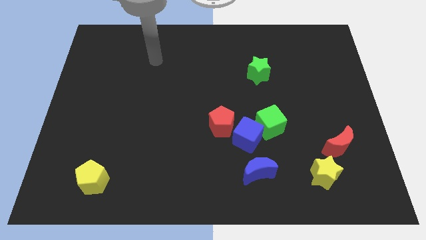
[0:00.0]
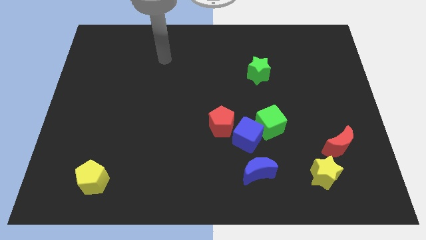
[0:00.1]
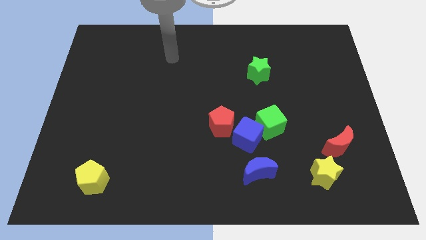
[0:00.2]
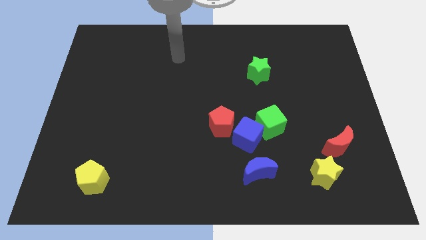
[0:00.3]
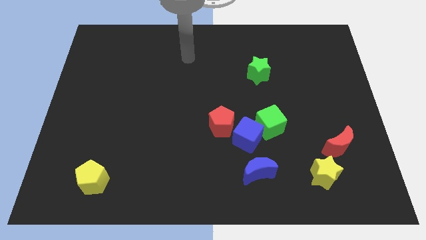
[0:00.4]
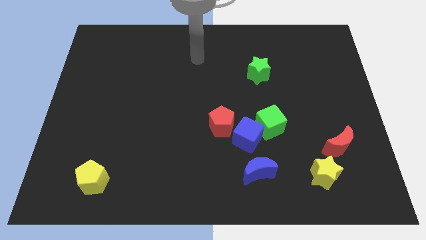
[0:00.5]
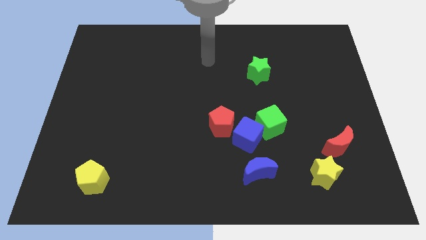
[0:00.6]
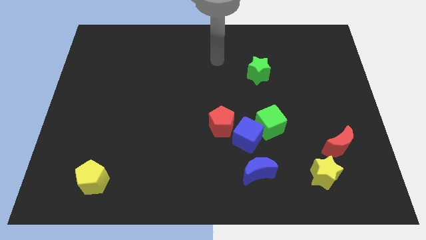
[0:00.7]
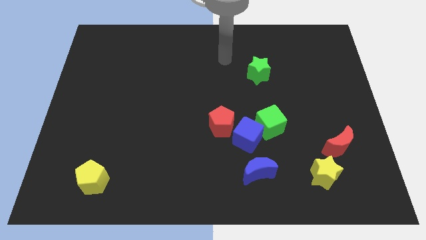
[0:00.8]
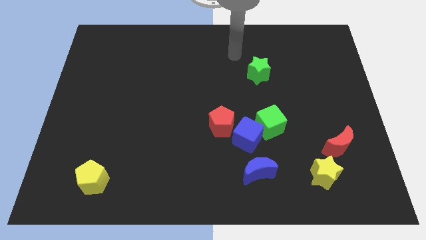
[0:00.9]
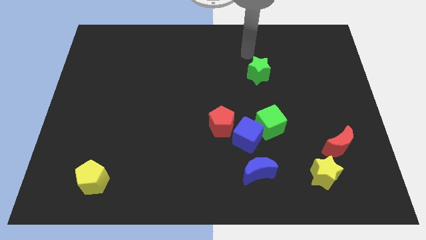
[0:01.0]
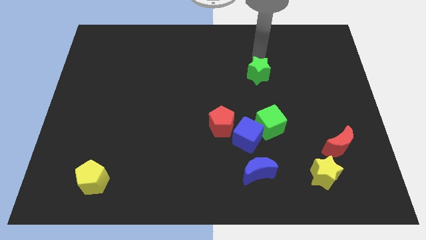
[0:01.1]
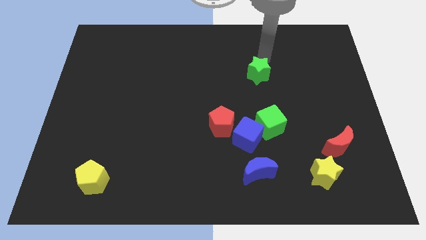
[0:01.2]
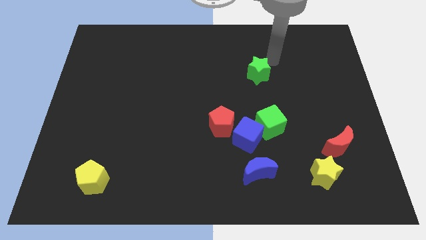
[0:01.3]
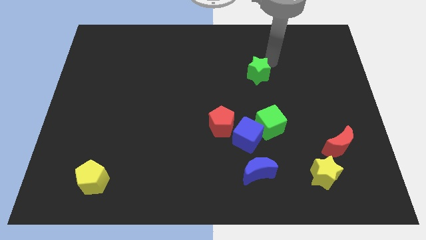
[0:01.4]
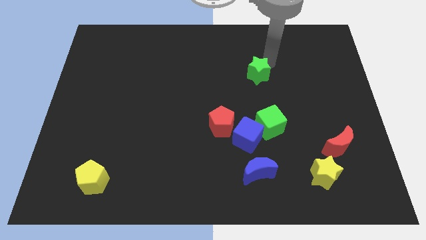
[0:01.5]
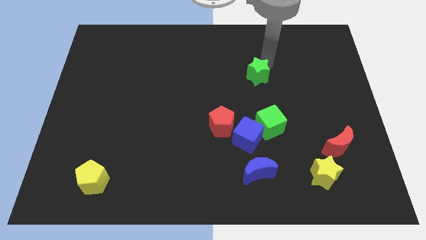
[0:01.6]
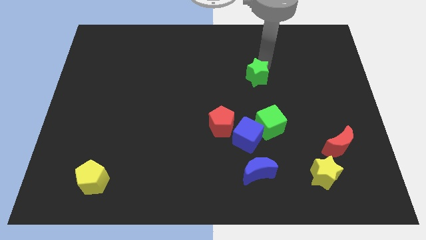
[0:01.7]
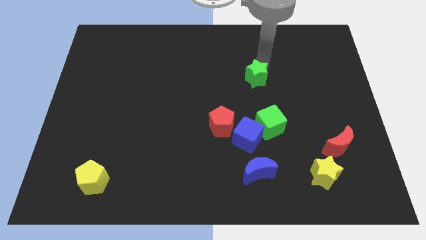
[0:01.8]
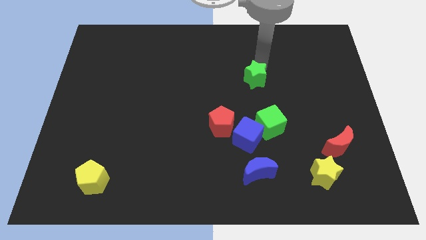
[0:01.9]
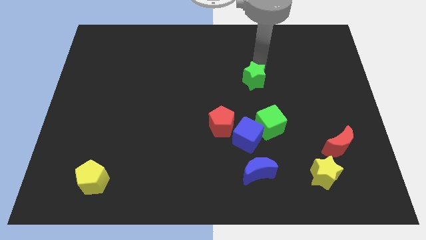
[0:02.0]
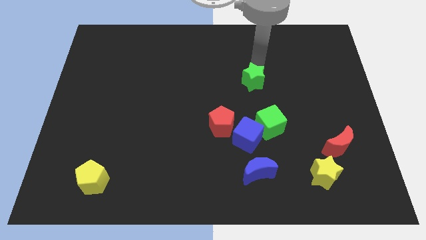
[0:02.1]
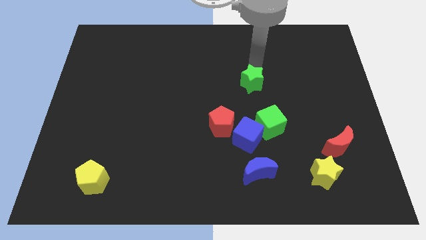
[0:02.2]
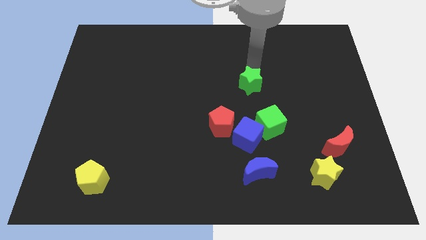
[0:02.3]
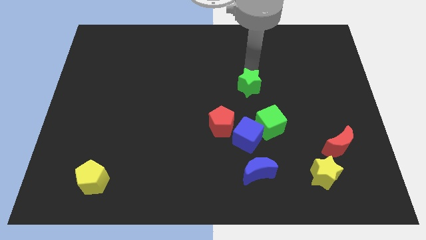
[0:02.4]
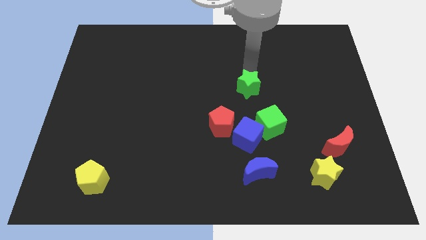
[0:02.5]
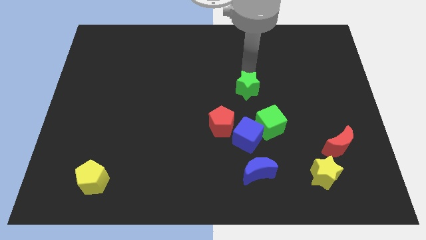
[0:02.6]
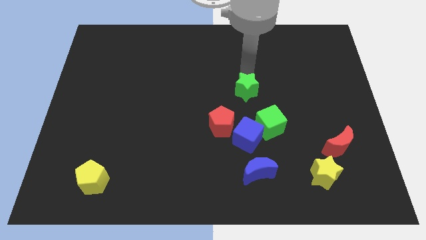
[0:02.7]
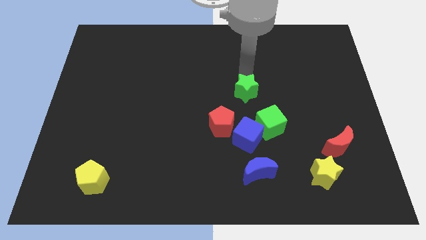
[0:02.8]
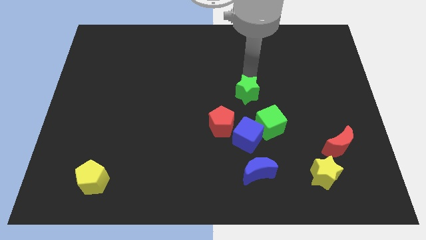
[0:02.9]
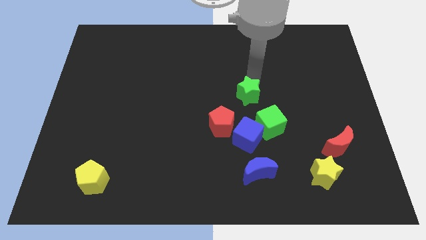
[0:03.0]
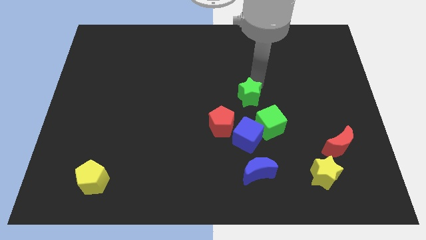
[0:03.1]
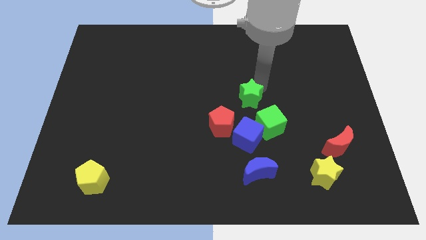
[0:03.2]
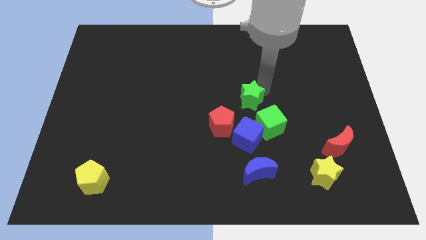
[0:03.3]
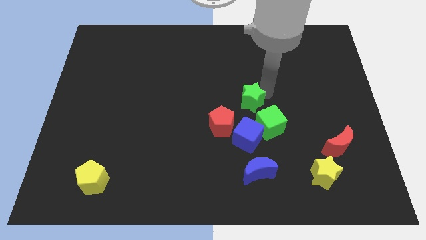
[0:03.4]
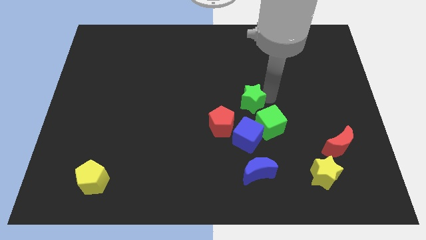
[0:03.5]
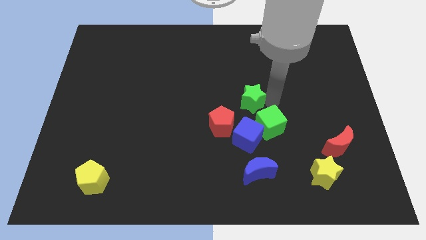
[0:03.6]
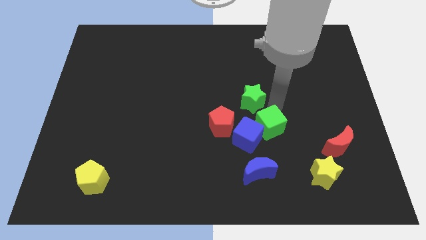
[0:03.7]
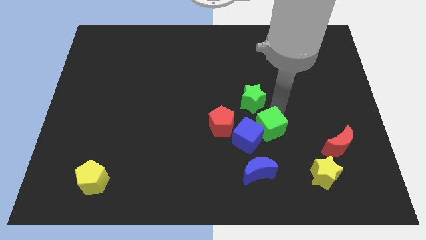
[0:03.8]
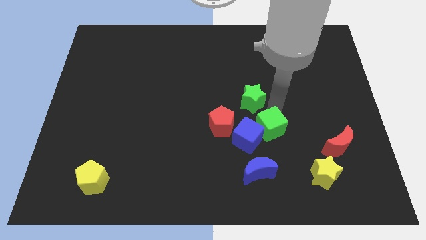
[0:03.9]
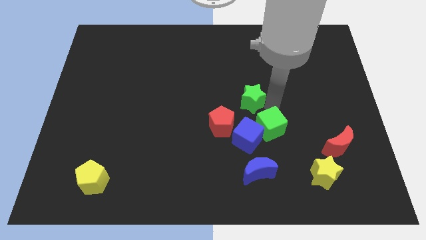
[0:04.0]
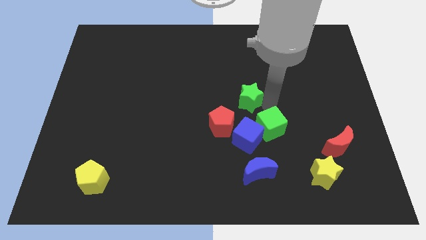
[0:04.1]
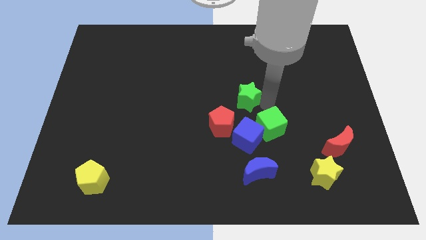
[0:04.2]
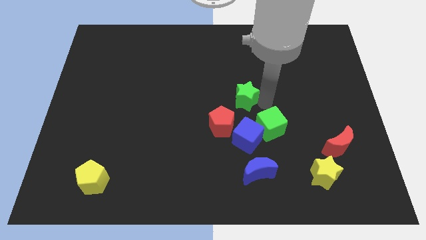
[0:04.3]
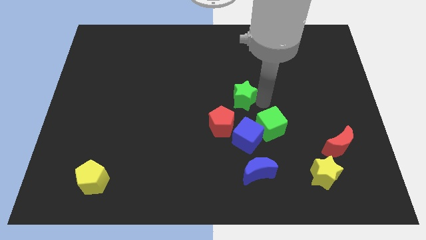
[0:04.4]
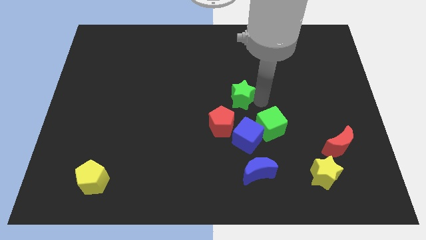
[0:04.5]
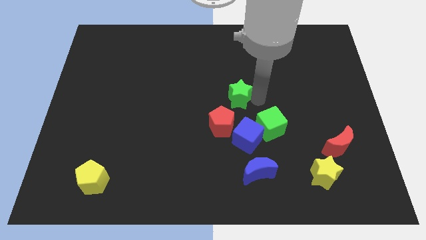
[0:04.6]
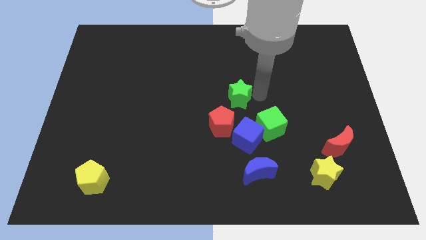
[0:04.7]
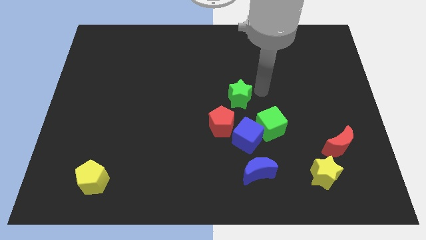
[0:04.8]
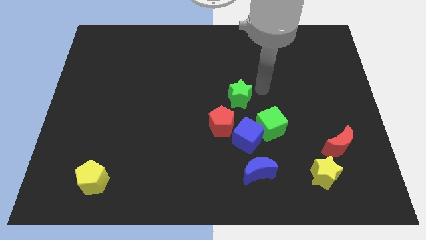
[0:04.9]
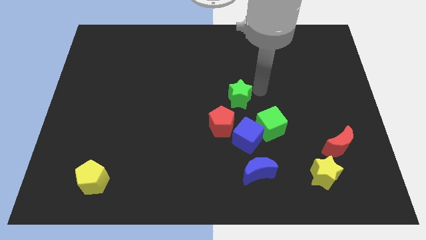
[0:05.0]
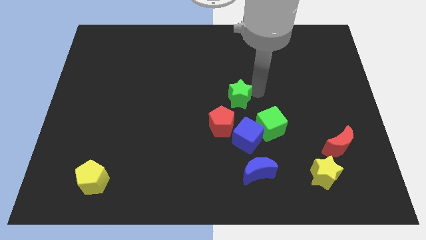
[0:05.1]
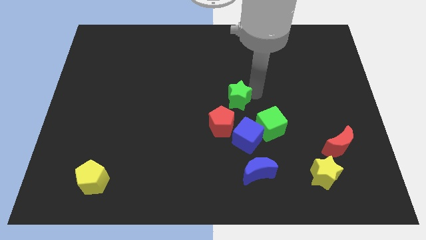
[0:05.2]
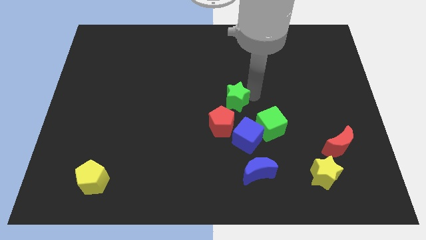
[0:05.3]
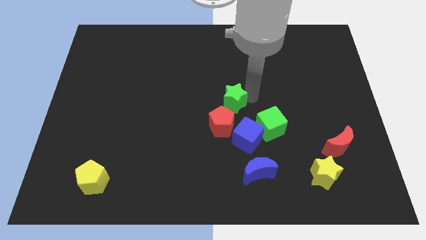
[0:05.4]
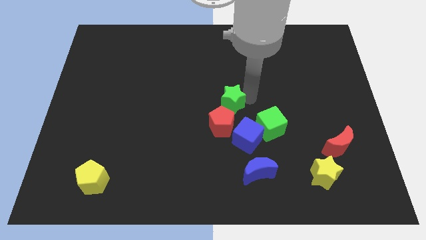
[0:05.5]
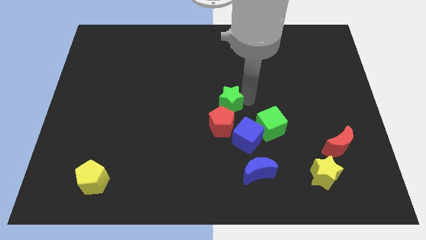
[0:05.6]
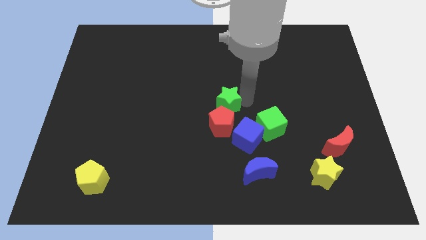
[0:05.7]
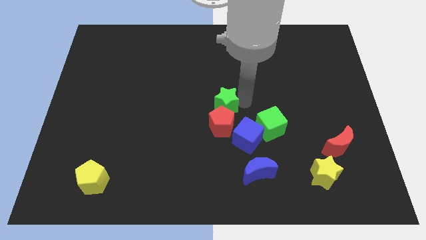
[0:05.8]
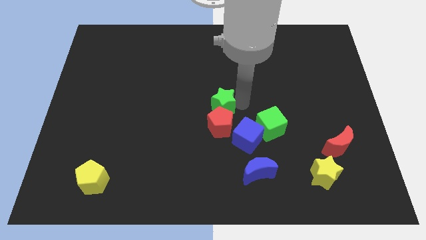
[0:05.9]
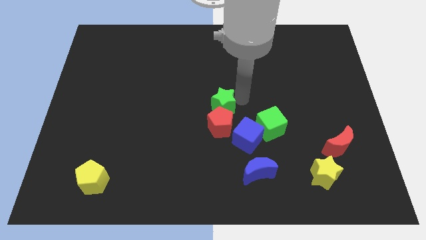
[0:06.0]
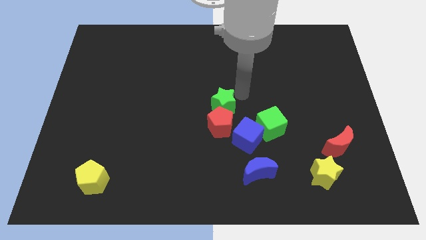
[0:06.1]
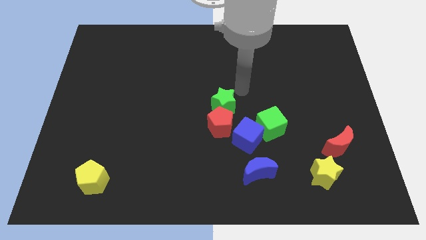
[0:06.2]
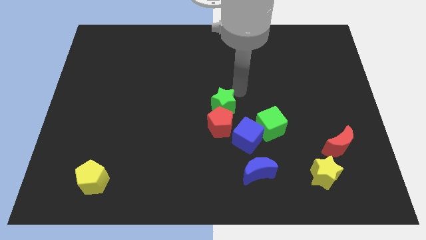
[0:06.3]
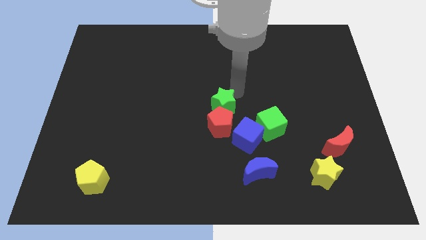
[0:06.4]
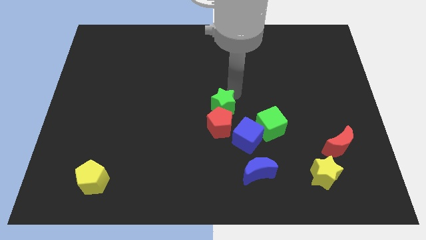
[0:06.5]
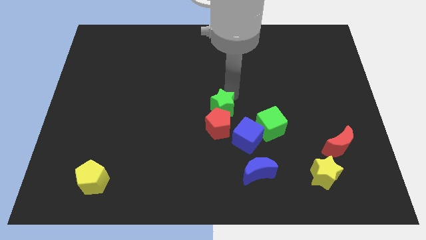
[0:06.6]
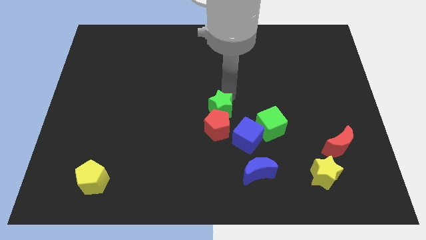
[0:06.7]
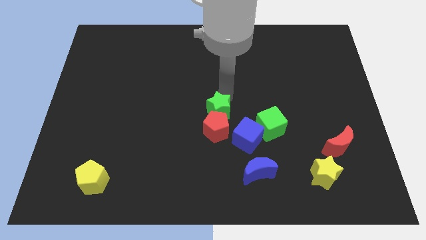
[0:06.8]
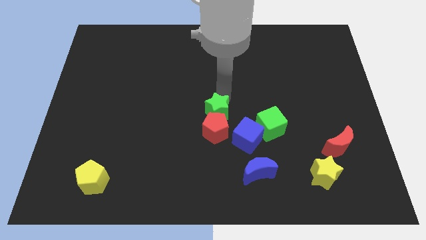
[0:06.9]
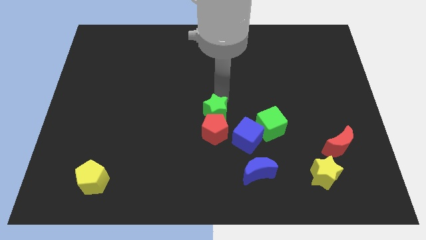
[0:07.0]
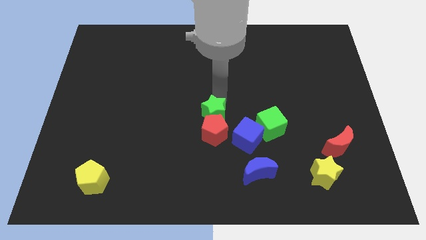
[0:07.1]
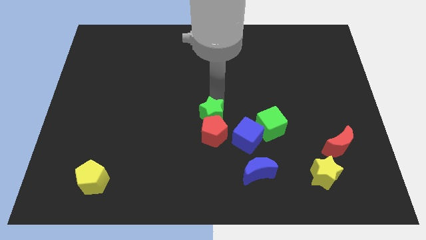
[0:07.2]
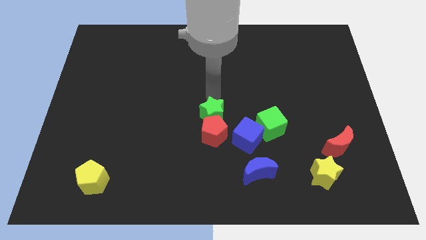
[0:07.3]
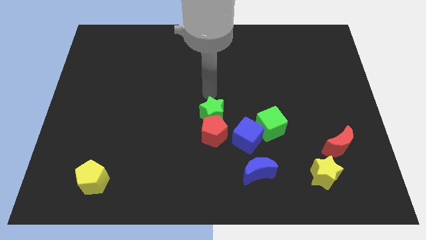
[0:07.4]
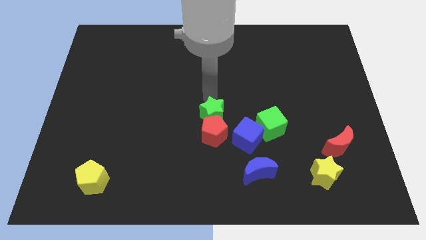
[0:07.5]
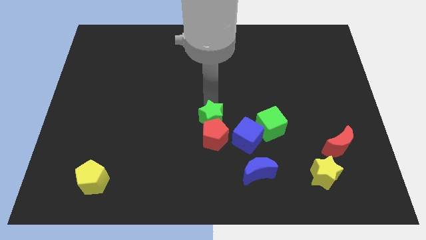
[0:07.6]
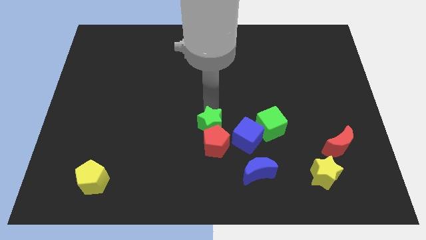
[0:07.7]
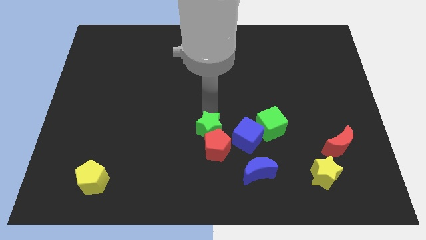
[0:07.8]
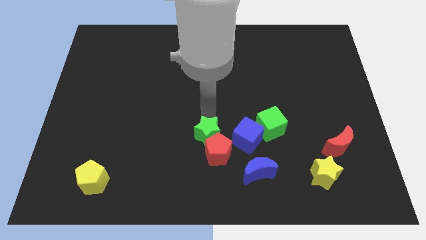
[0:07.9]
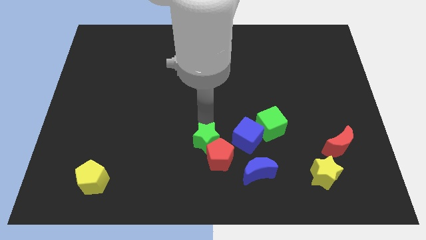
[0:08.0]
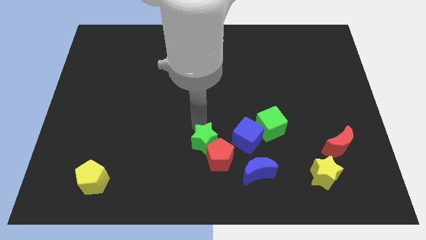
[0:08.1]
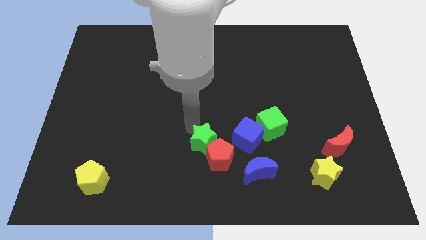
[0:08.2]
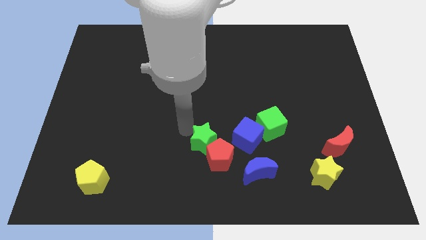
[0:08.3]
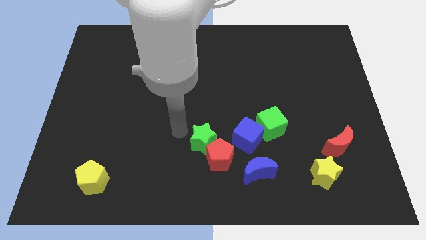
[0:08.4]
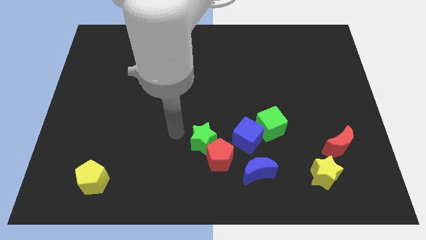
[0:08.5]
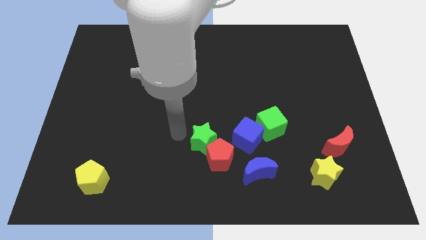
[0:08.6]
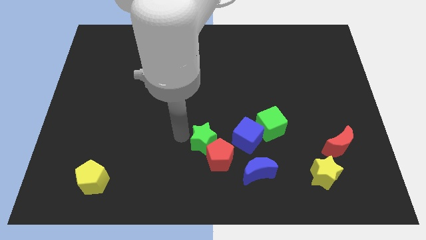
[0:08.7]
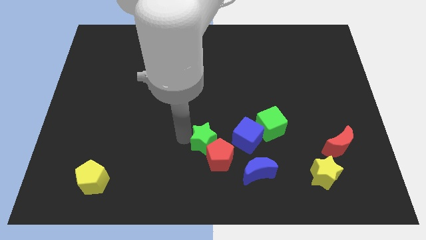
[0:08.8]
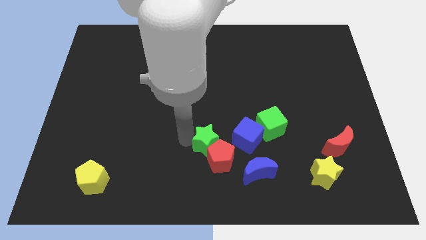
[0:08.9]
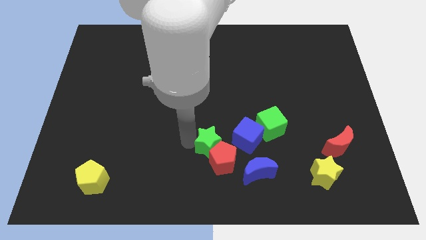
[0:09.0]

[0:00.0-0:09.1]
push the green star to the top left side of the blue moon
